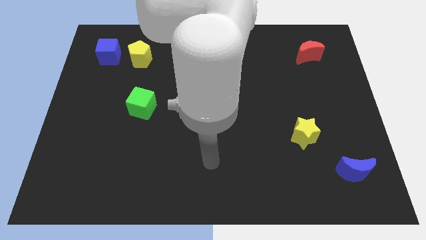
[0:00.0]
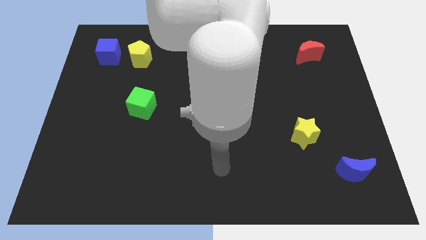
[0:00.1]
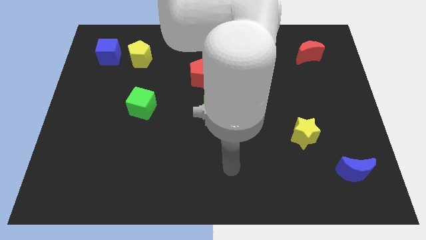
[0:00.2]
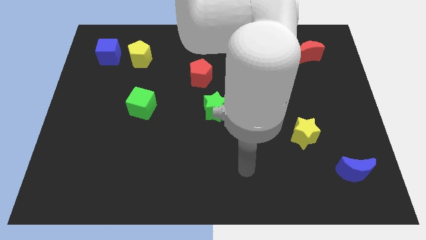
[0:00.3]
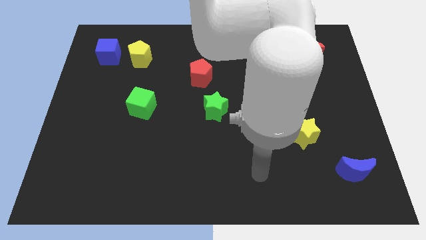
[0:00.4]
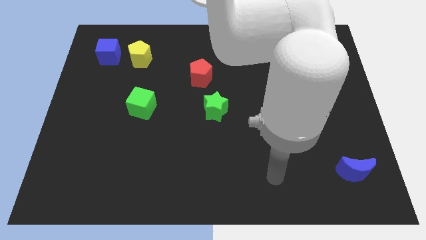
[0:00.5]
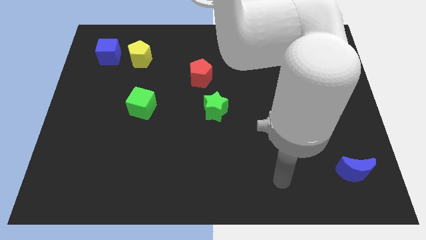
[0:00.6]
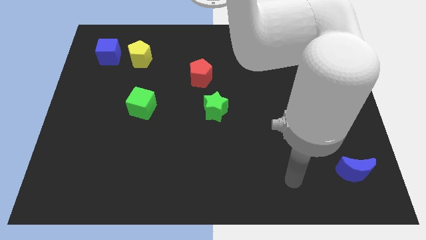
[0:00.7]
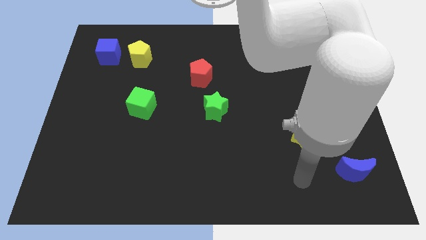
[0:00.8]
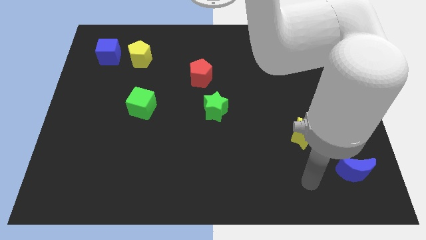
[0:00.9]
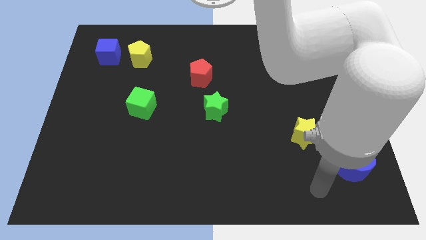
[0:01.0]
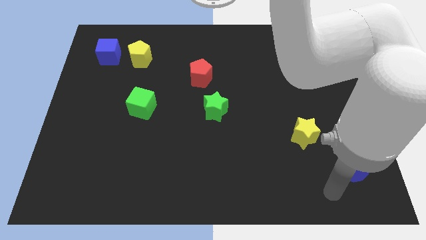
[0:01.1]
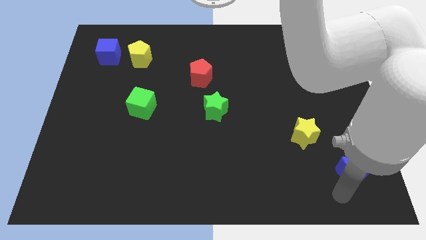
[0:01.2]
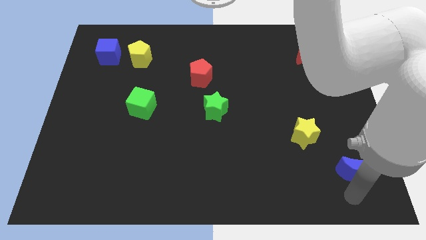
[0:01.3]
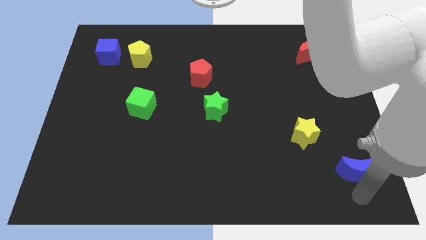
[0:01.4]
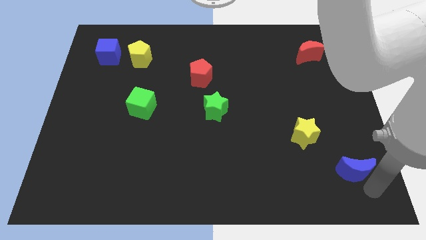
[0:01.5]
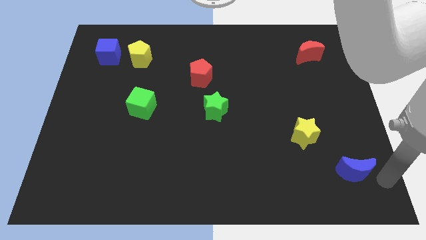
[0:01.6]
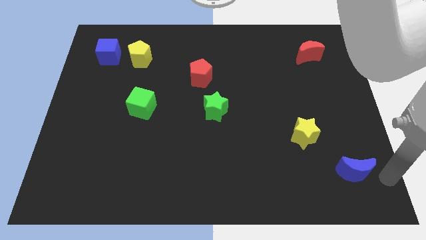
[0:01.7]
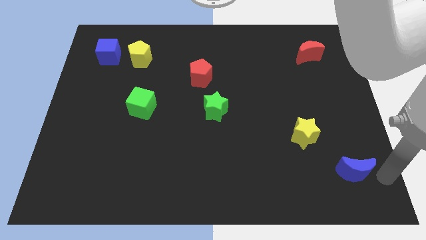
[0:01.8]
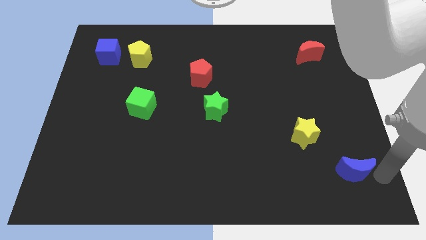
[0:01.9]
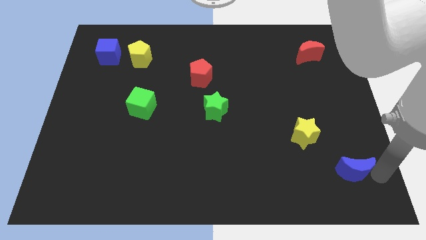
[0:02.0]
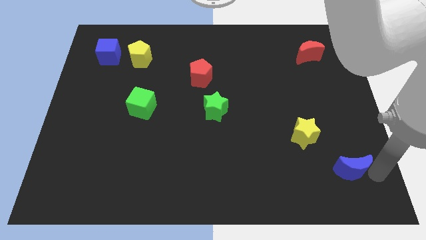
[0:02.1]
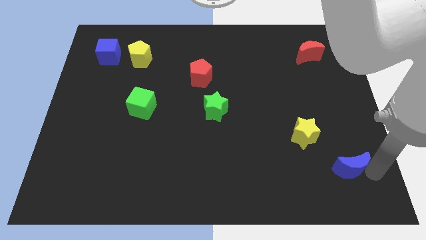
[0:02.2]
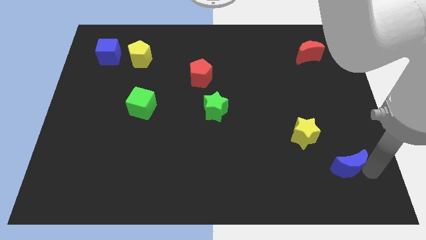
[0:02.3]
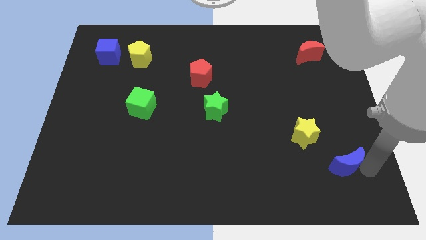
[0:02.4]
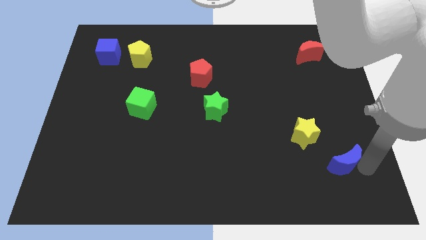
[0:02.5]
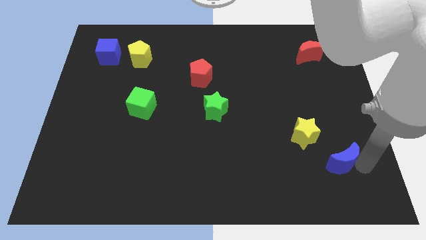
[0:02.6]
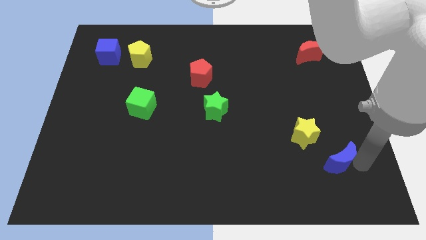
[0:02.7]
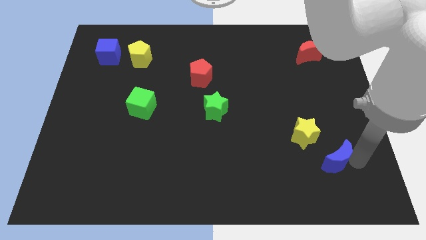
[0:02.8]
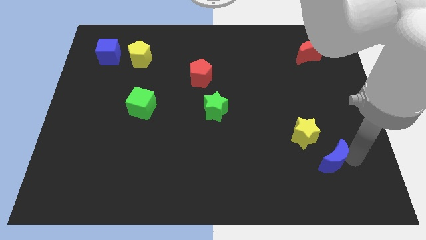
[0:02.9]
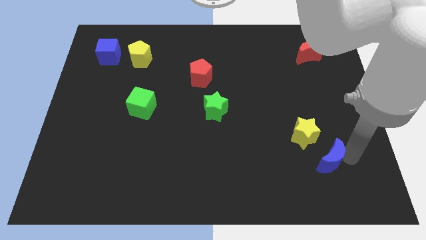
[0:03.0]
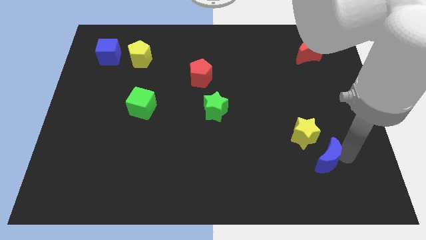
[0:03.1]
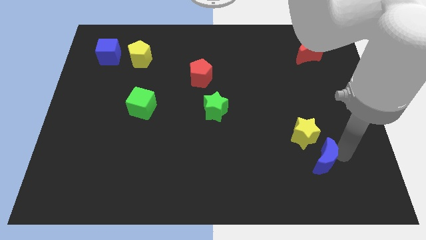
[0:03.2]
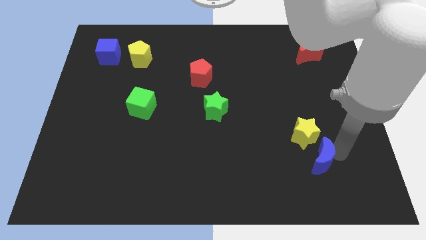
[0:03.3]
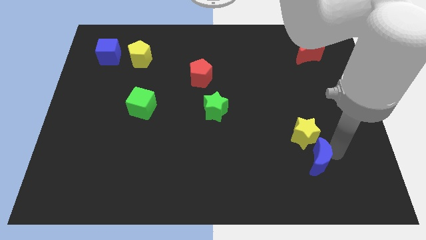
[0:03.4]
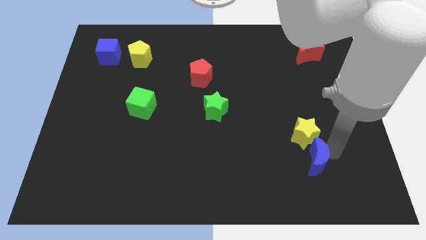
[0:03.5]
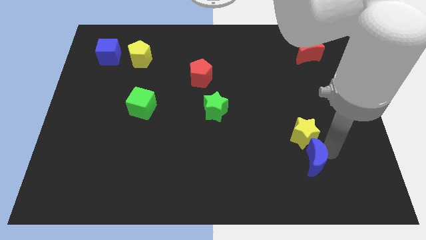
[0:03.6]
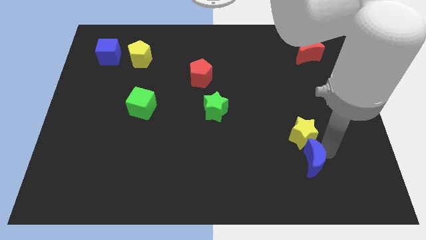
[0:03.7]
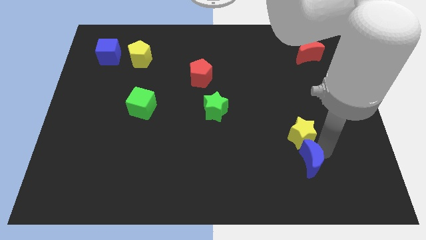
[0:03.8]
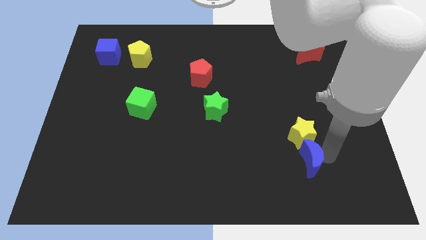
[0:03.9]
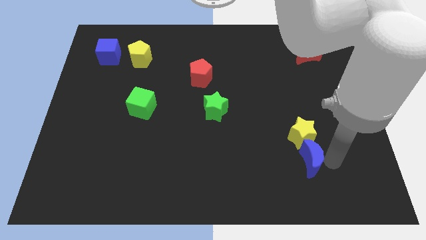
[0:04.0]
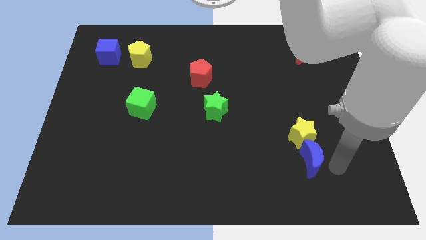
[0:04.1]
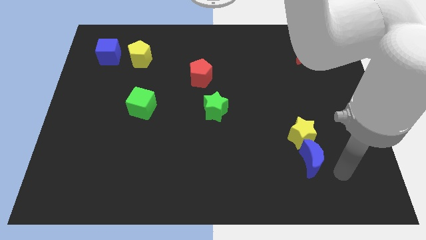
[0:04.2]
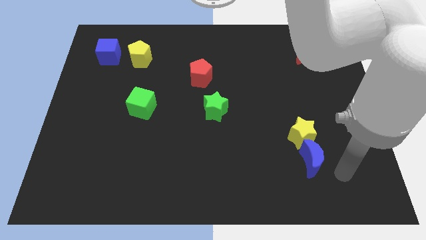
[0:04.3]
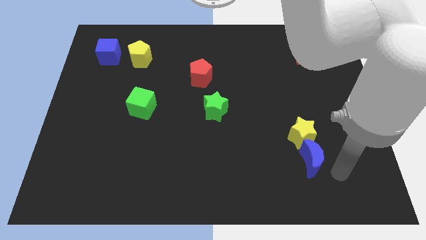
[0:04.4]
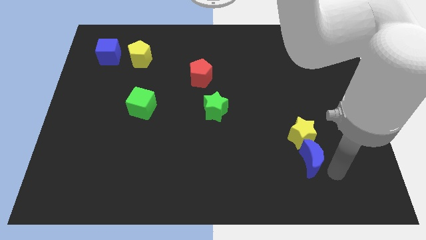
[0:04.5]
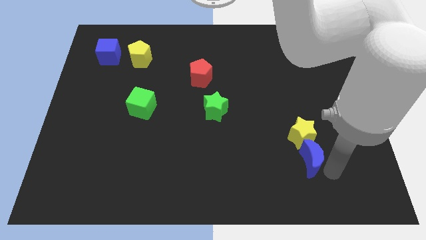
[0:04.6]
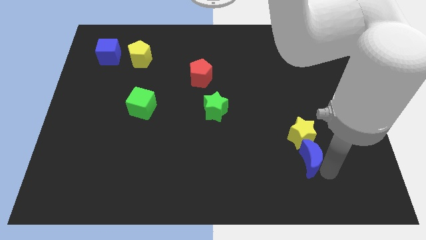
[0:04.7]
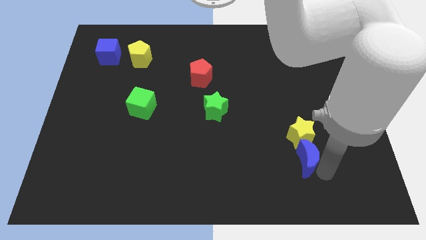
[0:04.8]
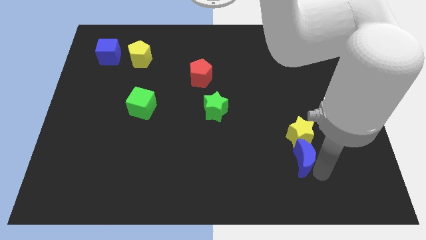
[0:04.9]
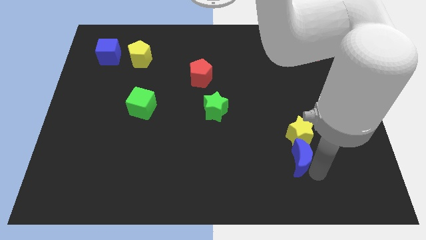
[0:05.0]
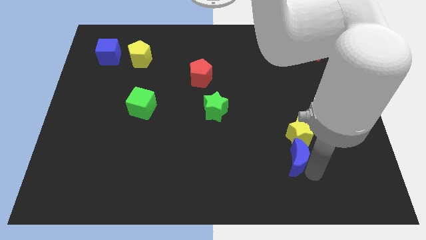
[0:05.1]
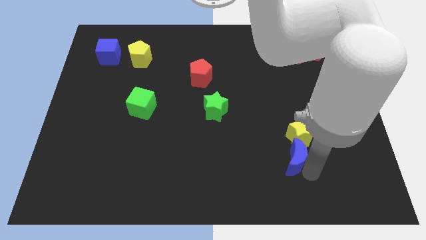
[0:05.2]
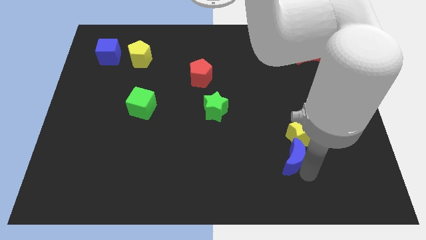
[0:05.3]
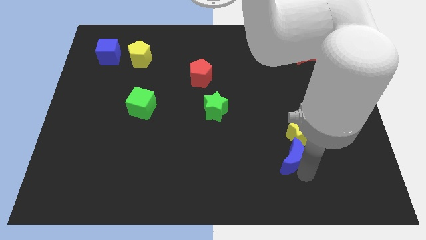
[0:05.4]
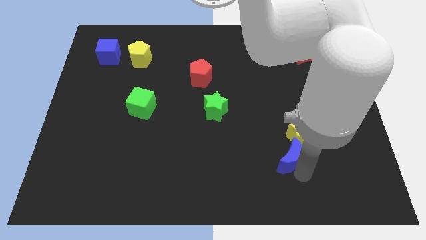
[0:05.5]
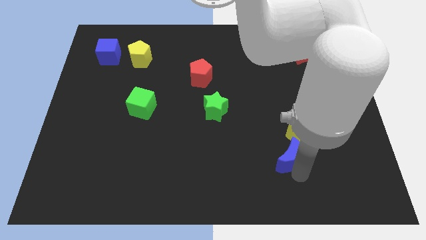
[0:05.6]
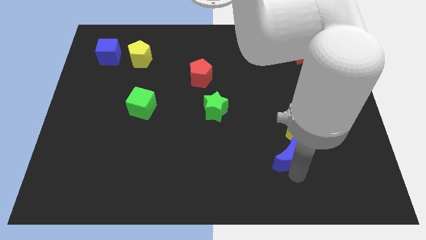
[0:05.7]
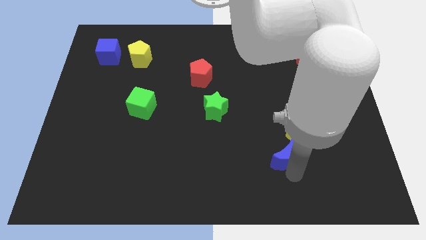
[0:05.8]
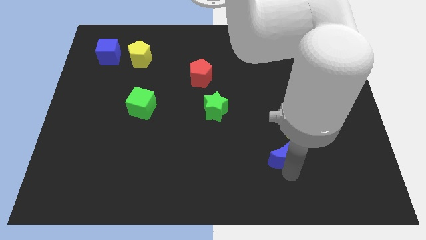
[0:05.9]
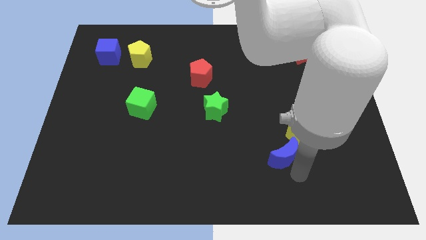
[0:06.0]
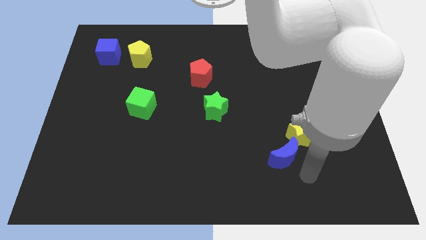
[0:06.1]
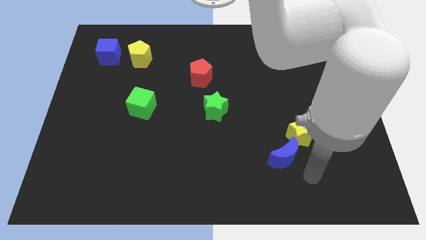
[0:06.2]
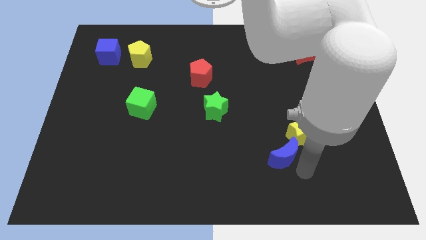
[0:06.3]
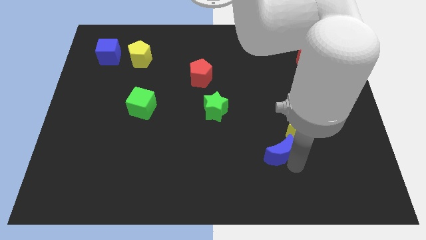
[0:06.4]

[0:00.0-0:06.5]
move the blue moon left of the yellow star
